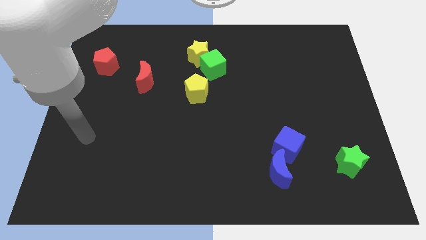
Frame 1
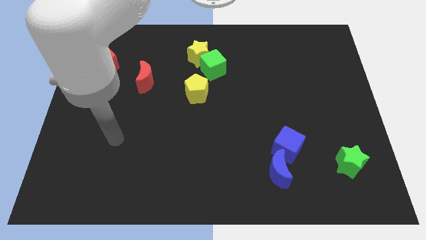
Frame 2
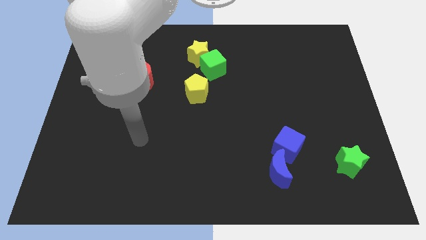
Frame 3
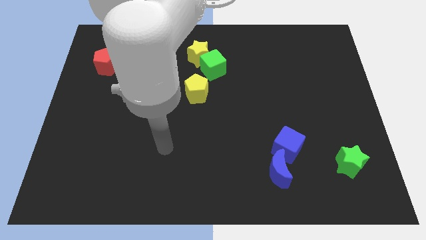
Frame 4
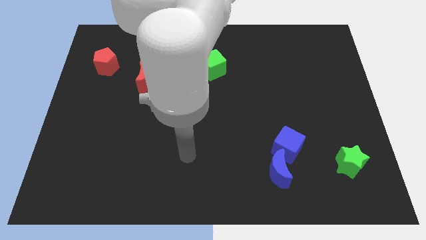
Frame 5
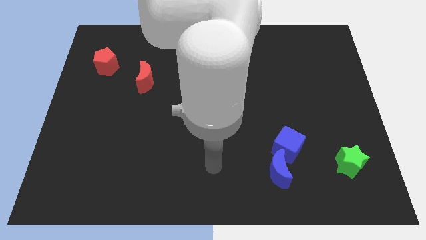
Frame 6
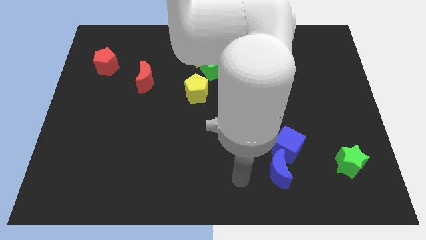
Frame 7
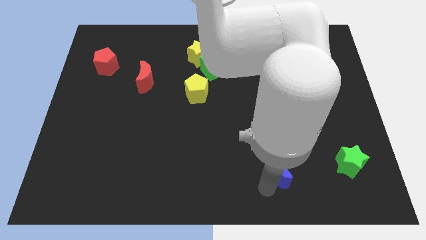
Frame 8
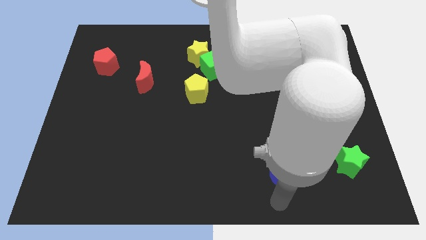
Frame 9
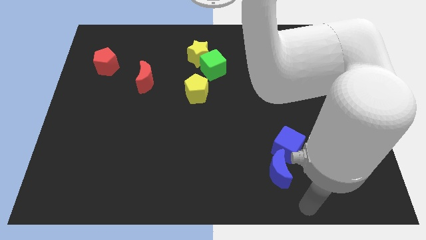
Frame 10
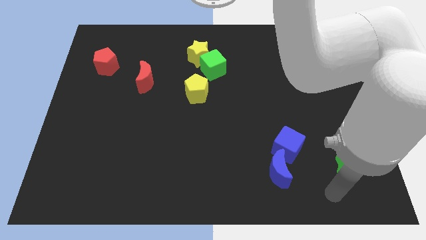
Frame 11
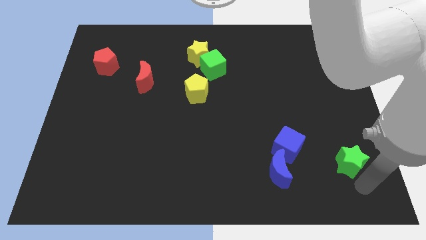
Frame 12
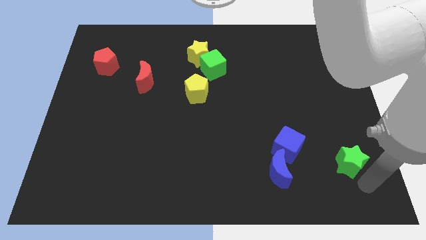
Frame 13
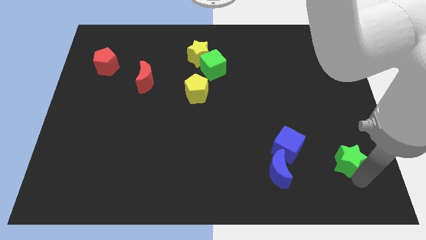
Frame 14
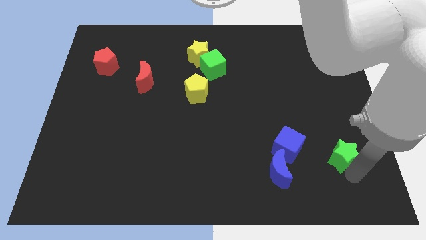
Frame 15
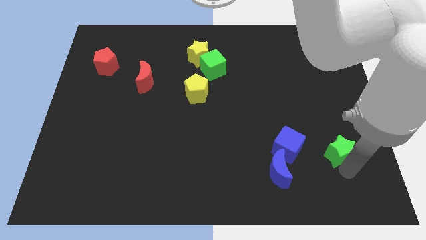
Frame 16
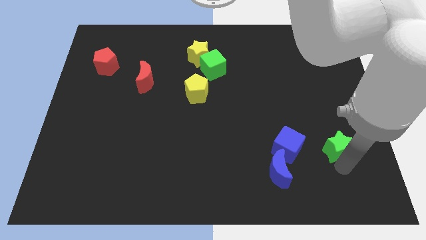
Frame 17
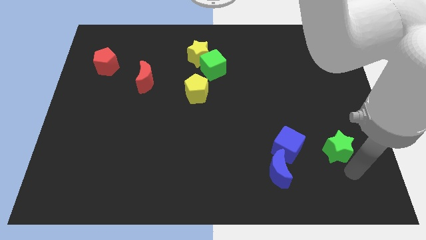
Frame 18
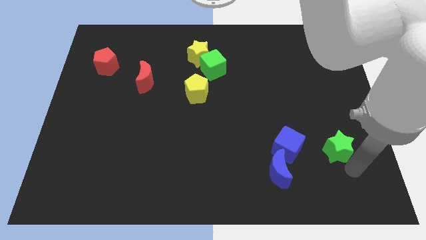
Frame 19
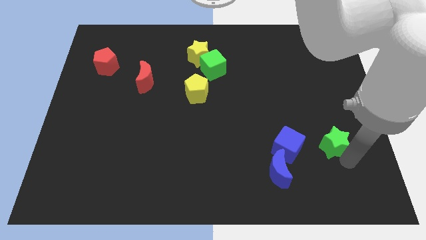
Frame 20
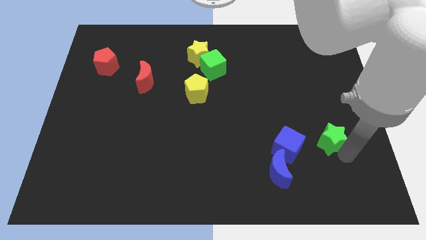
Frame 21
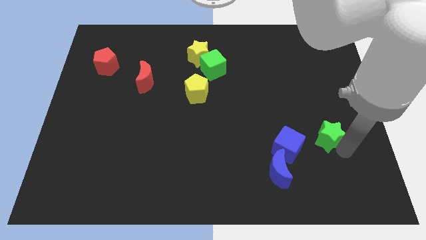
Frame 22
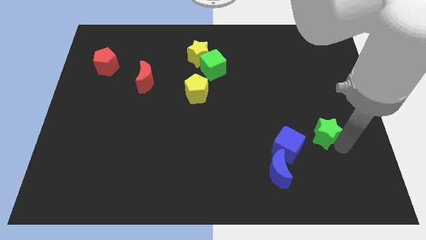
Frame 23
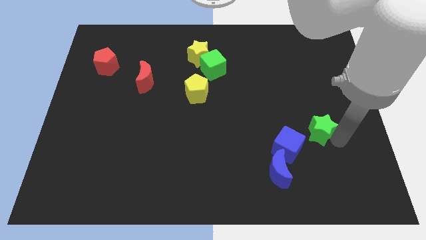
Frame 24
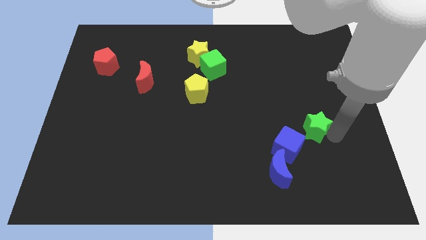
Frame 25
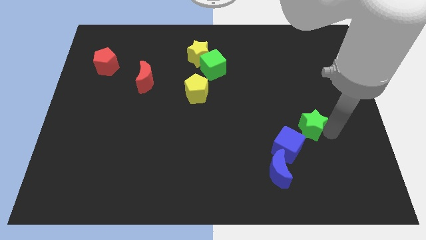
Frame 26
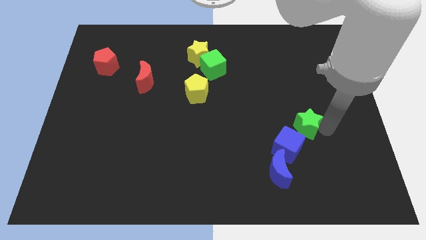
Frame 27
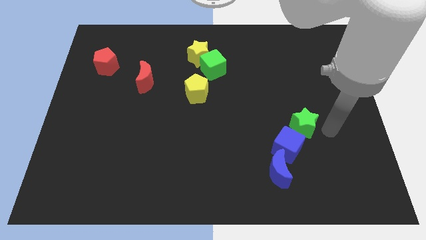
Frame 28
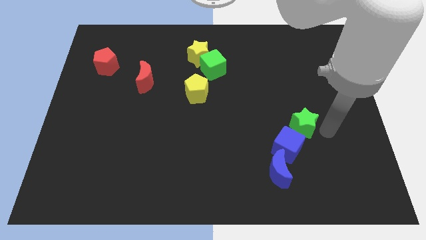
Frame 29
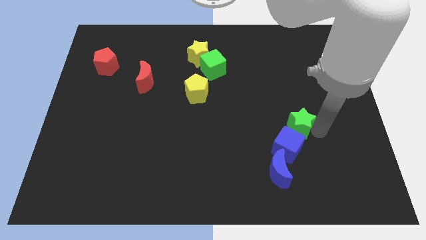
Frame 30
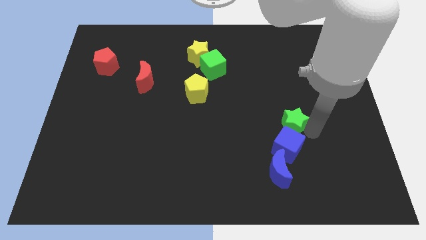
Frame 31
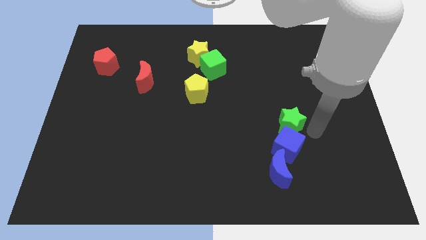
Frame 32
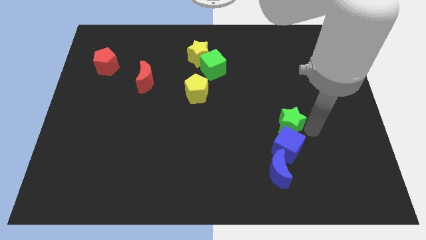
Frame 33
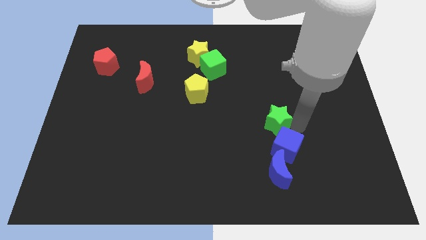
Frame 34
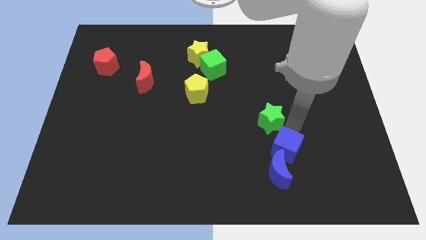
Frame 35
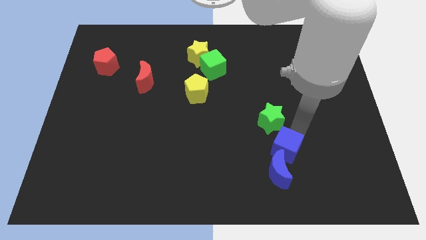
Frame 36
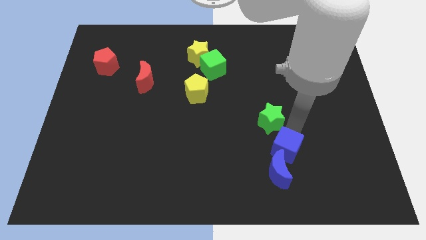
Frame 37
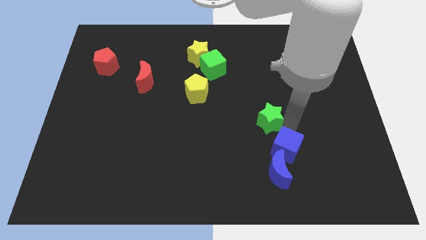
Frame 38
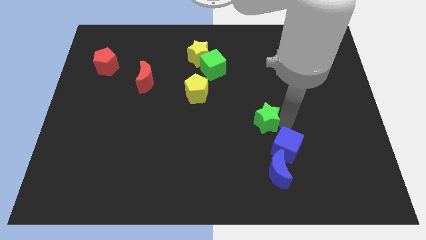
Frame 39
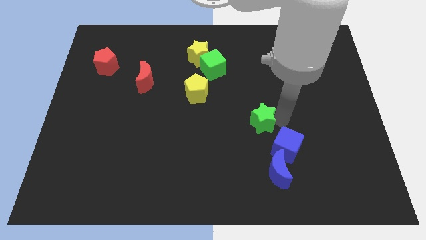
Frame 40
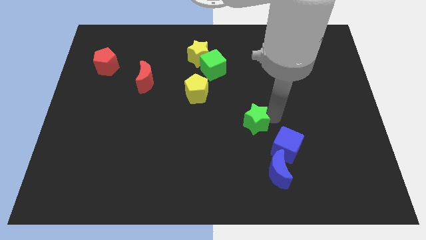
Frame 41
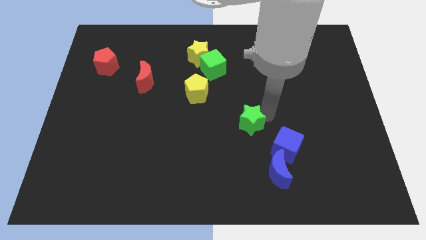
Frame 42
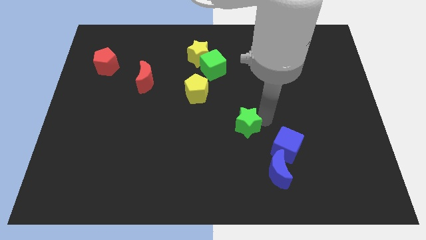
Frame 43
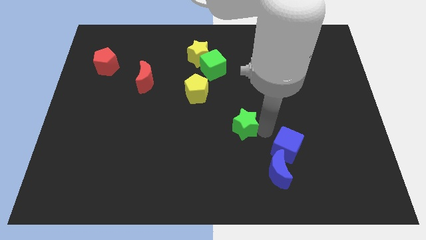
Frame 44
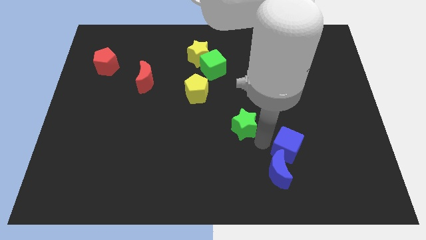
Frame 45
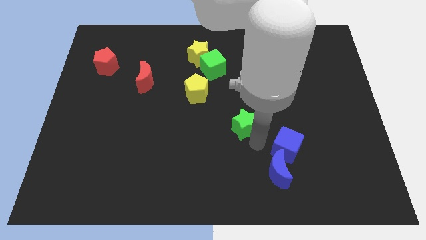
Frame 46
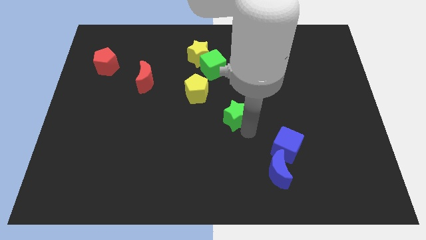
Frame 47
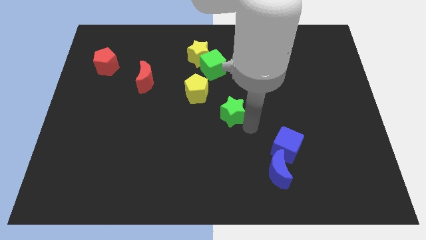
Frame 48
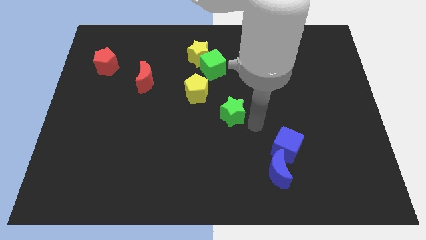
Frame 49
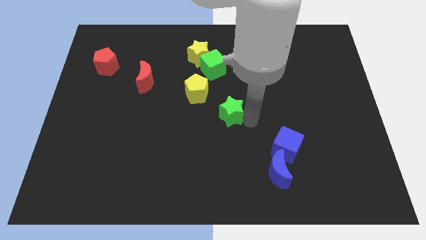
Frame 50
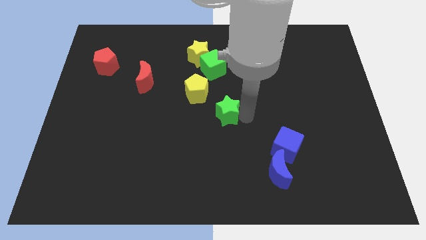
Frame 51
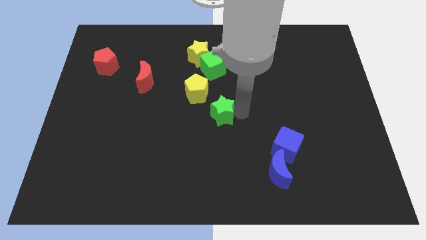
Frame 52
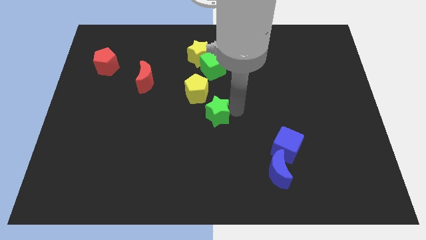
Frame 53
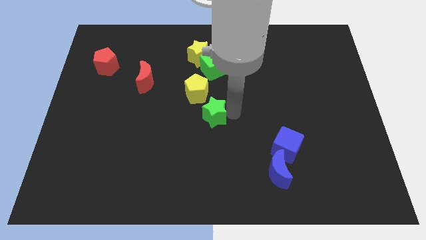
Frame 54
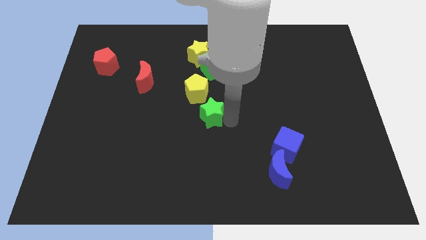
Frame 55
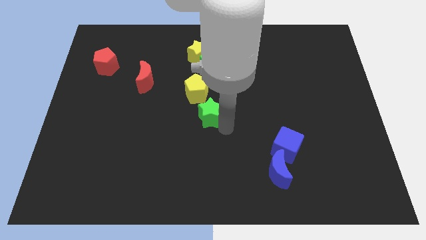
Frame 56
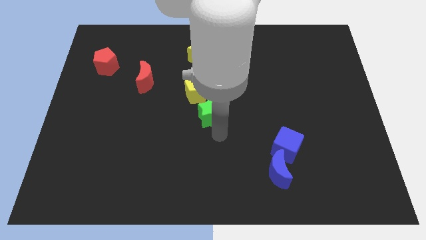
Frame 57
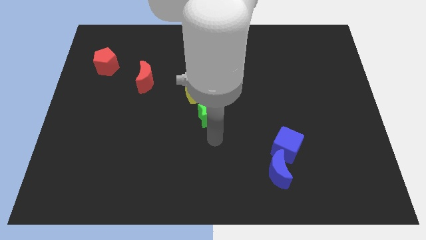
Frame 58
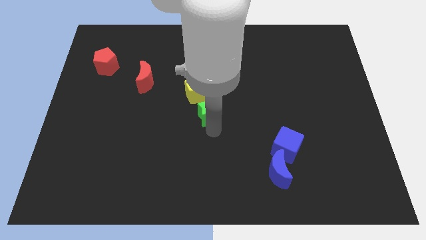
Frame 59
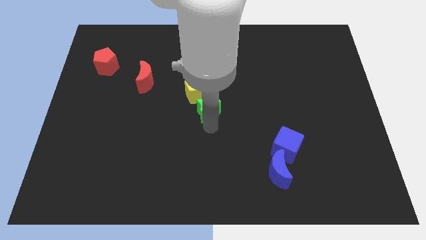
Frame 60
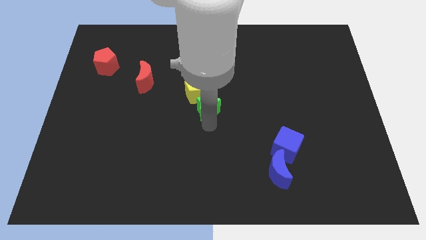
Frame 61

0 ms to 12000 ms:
push the green star close to the yellow pentagon

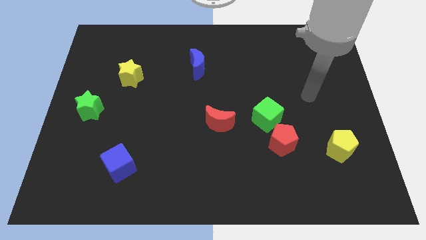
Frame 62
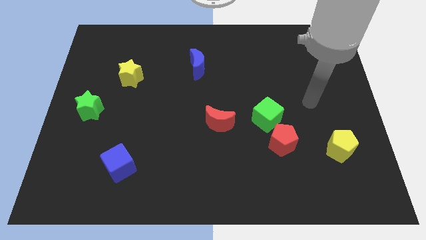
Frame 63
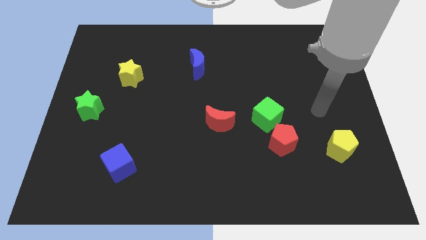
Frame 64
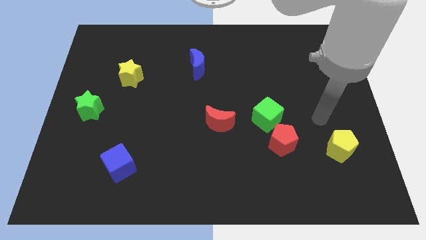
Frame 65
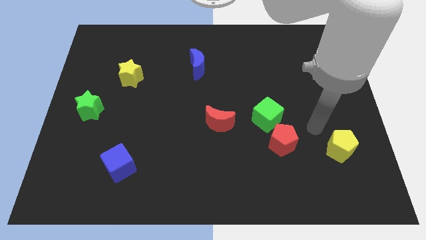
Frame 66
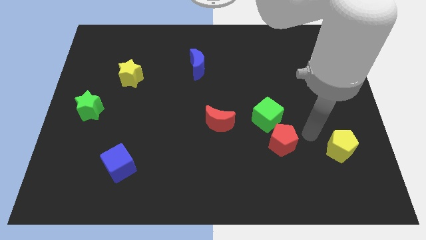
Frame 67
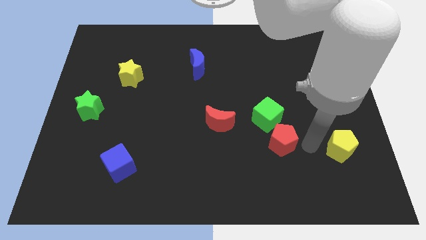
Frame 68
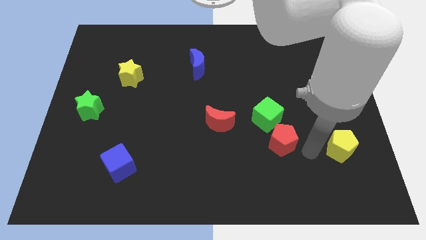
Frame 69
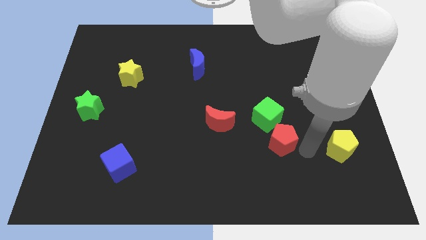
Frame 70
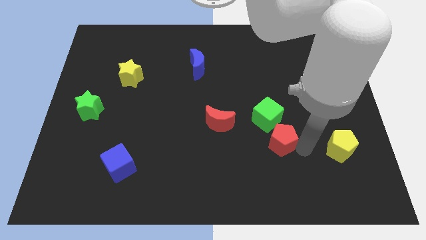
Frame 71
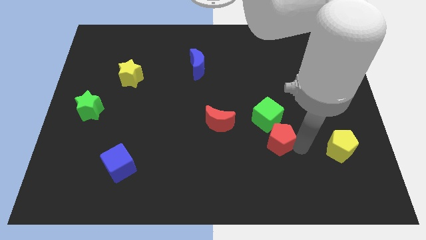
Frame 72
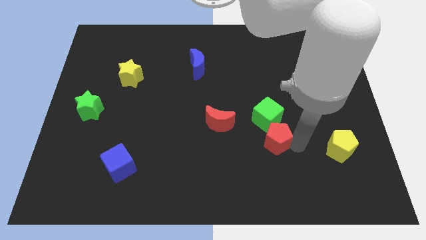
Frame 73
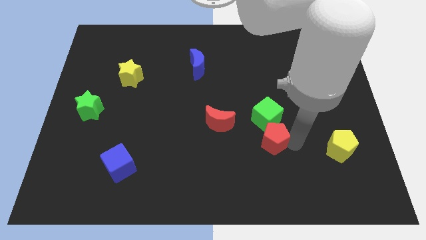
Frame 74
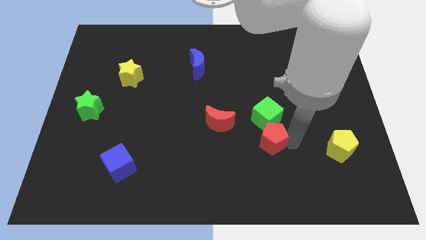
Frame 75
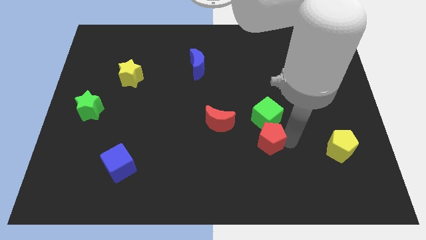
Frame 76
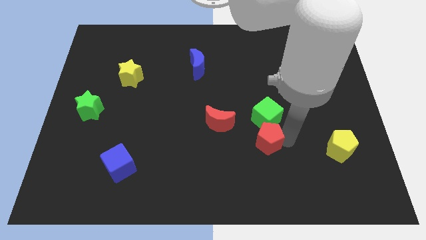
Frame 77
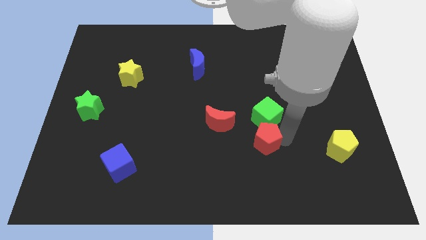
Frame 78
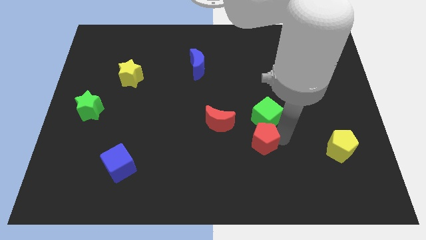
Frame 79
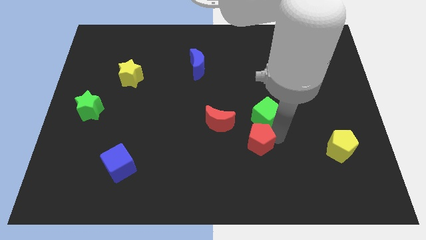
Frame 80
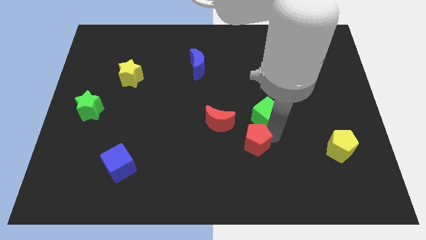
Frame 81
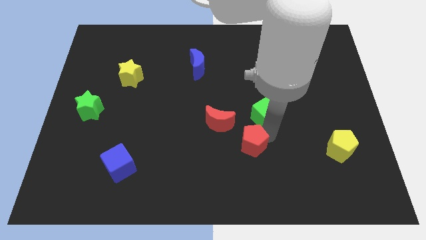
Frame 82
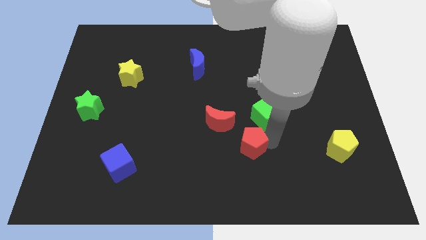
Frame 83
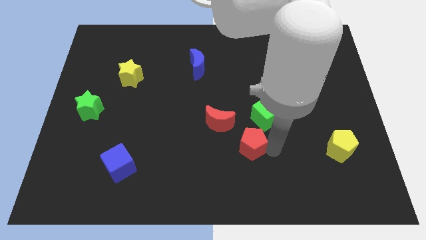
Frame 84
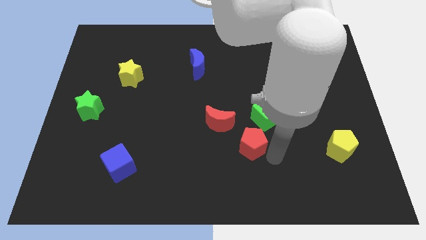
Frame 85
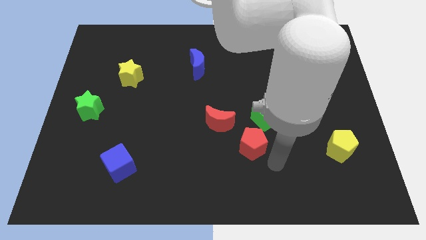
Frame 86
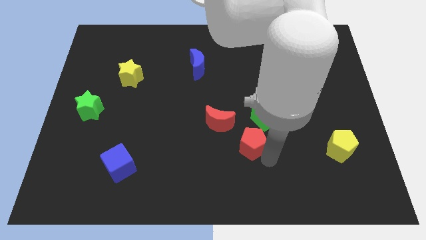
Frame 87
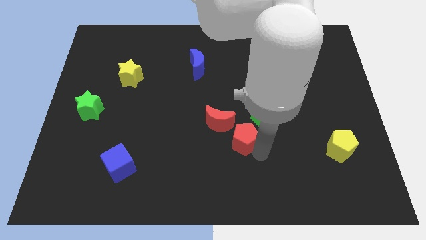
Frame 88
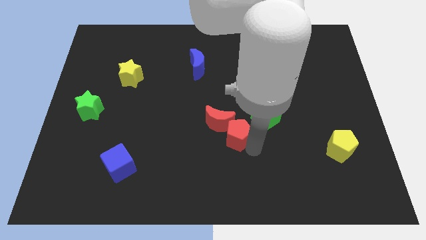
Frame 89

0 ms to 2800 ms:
put the red pentagon close to the red moon
